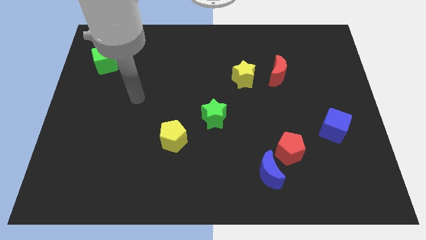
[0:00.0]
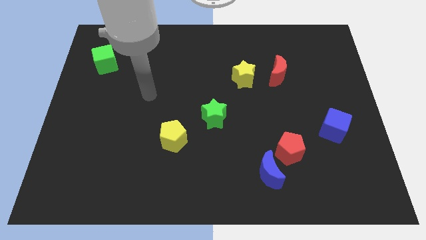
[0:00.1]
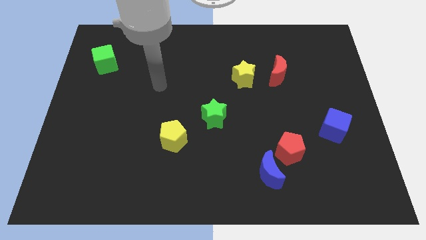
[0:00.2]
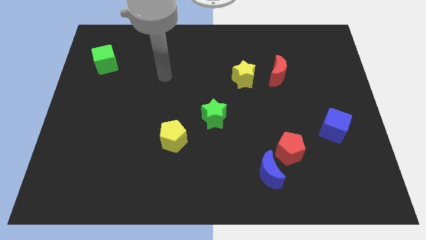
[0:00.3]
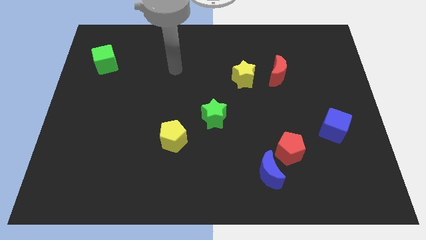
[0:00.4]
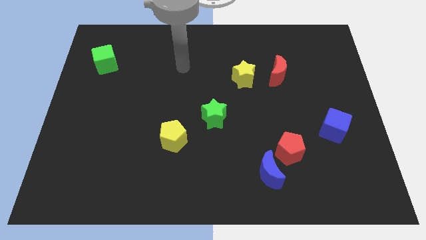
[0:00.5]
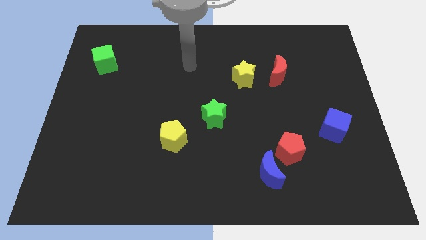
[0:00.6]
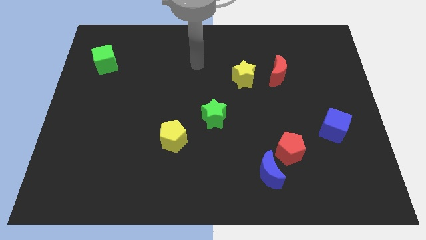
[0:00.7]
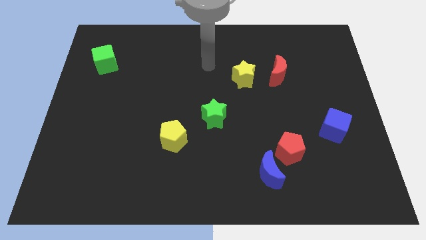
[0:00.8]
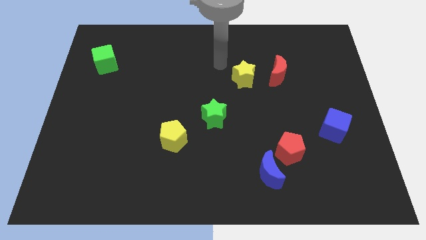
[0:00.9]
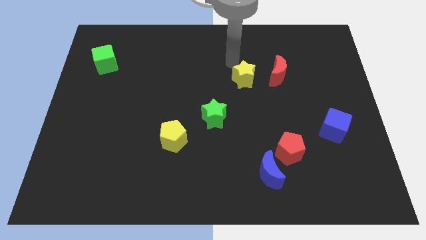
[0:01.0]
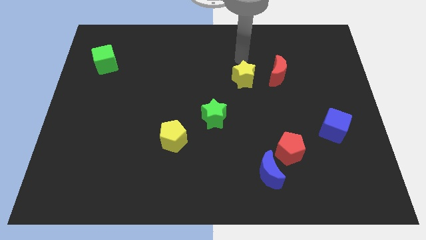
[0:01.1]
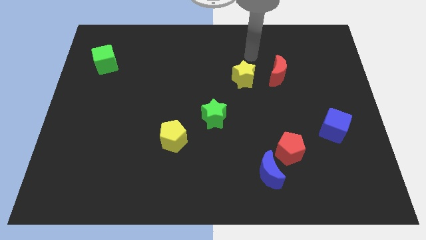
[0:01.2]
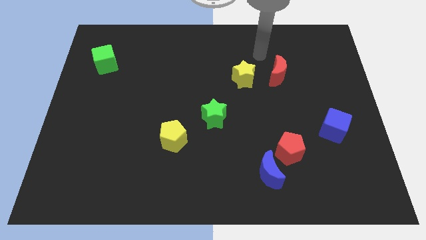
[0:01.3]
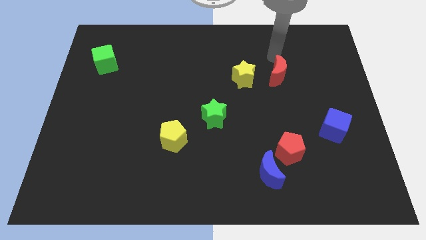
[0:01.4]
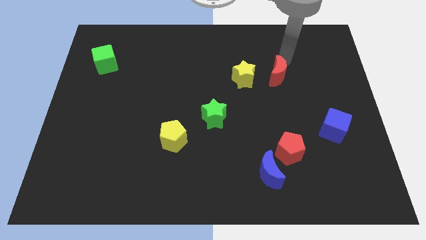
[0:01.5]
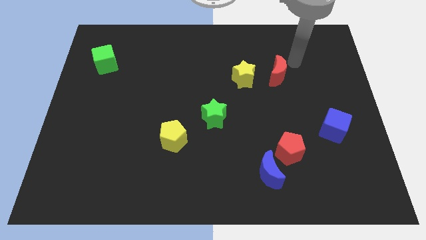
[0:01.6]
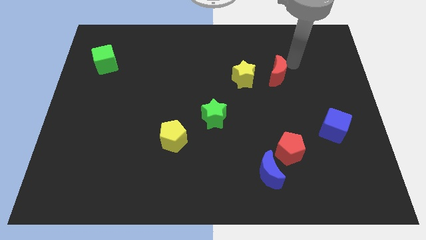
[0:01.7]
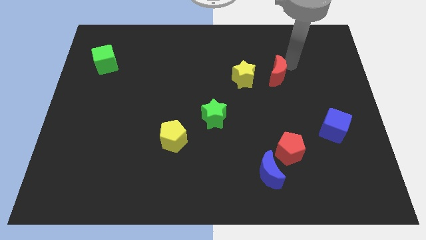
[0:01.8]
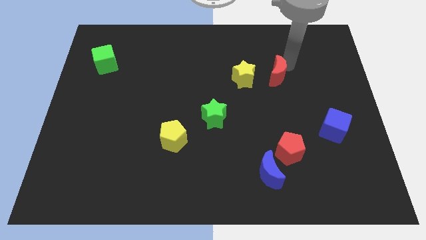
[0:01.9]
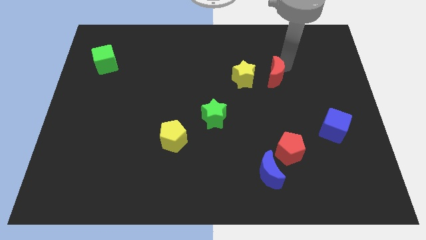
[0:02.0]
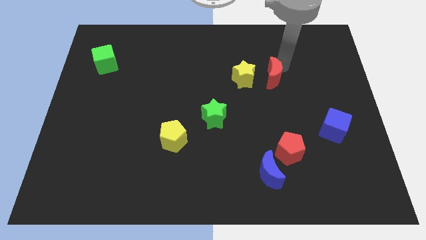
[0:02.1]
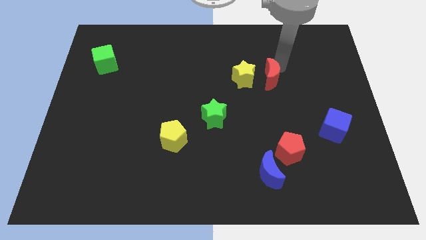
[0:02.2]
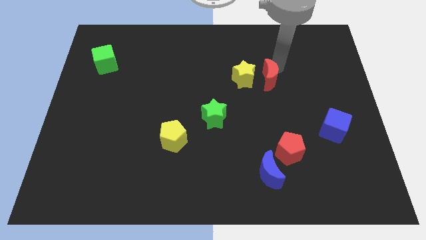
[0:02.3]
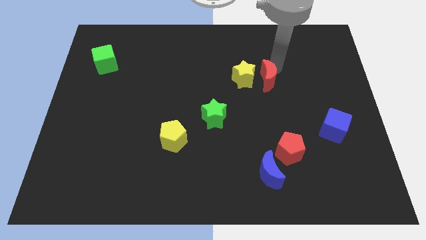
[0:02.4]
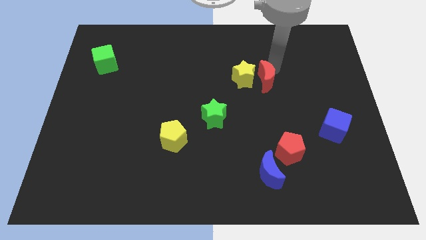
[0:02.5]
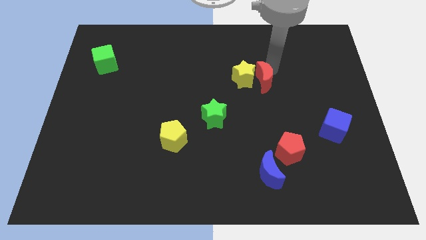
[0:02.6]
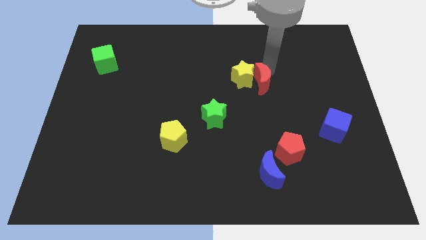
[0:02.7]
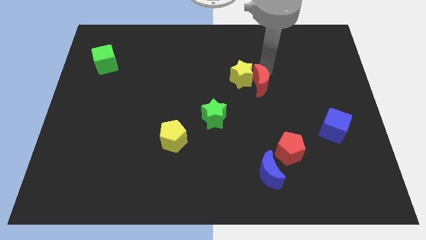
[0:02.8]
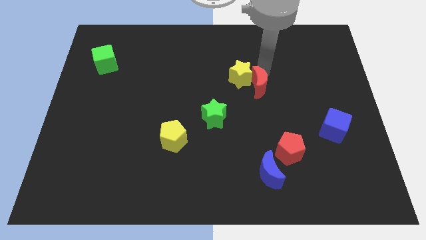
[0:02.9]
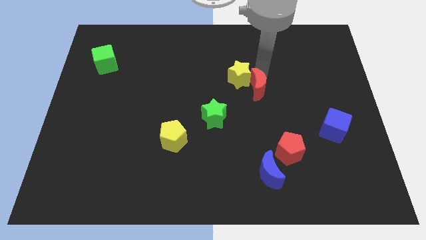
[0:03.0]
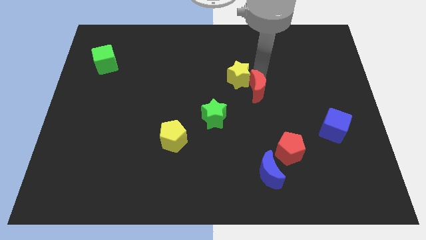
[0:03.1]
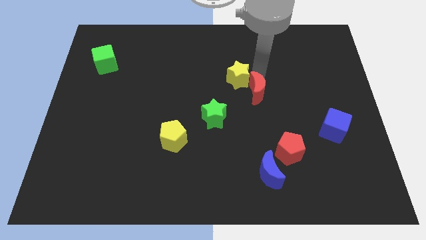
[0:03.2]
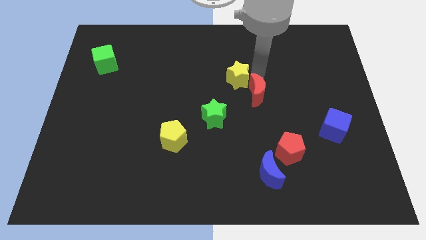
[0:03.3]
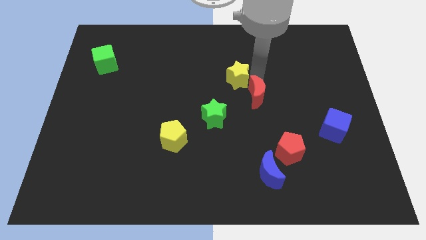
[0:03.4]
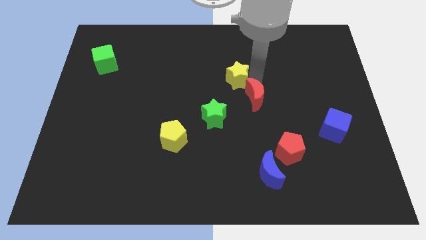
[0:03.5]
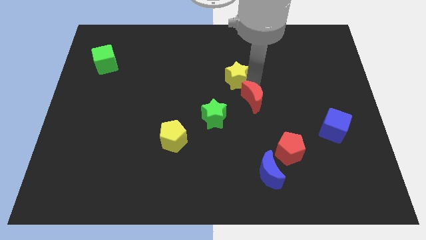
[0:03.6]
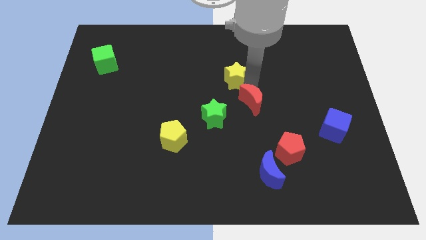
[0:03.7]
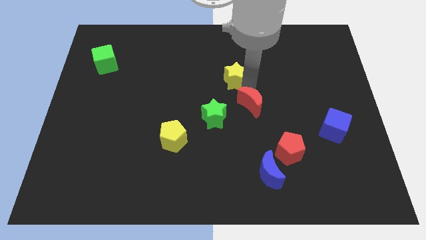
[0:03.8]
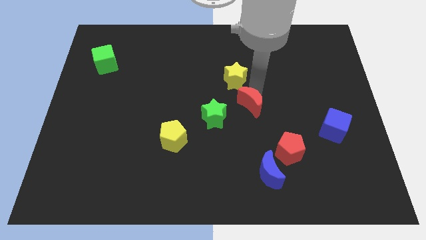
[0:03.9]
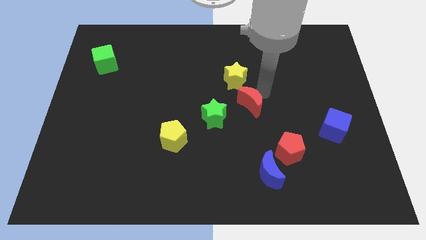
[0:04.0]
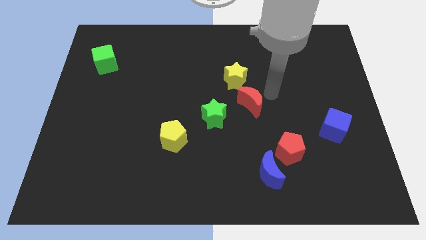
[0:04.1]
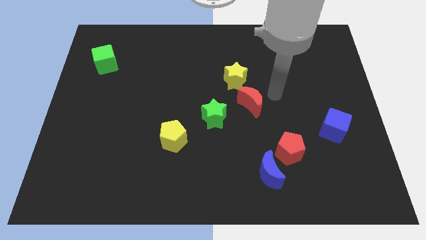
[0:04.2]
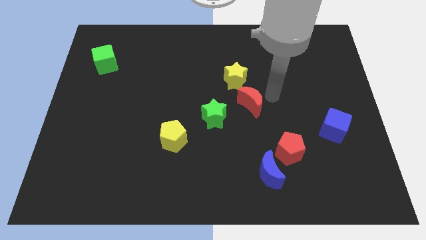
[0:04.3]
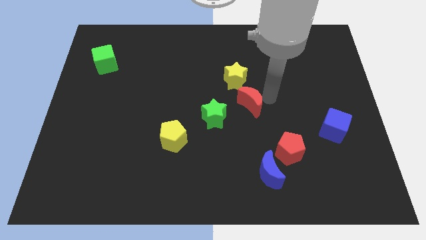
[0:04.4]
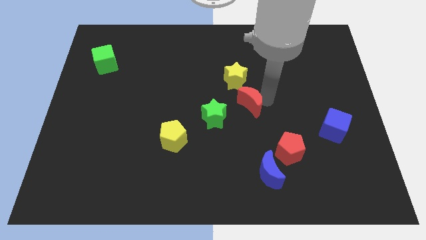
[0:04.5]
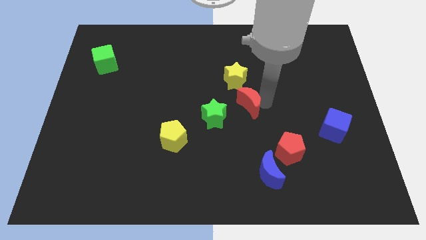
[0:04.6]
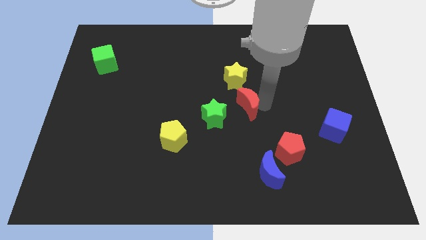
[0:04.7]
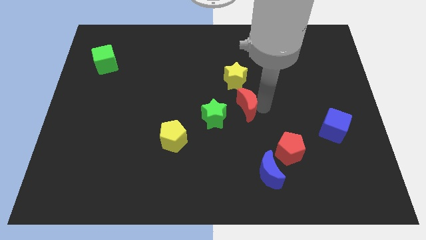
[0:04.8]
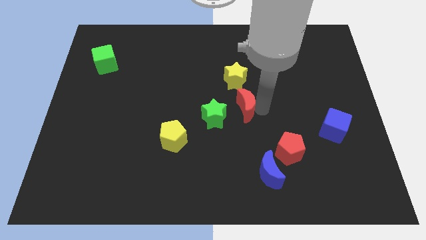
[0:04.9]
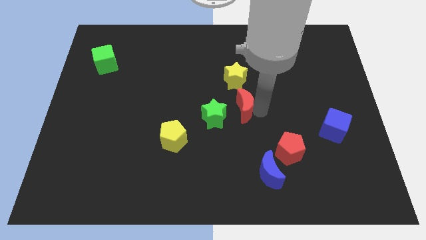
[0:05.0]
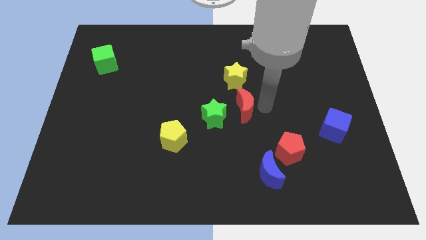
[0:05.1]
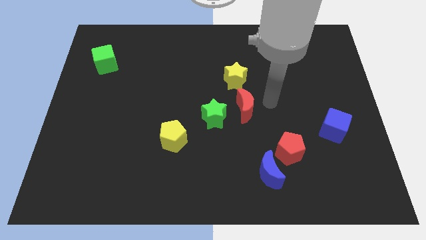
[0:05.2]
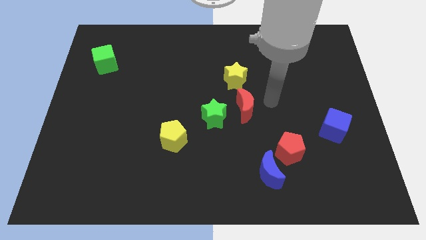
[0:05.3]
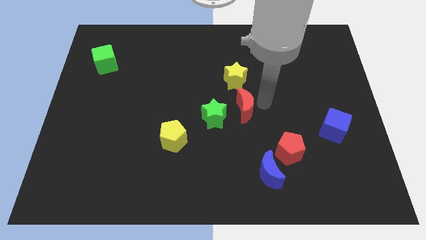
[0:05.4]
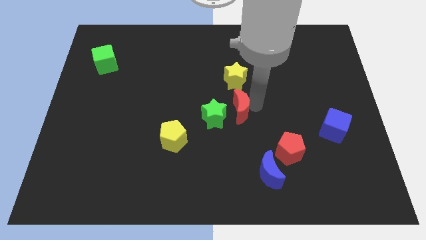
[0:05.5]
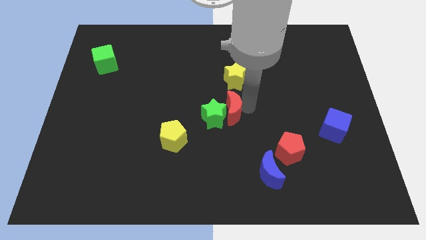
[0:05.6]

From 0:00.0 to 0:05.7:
move the red moon towards the green star
